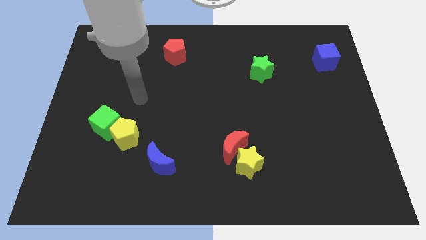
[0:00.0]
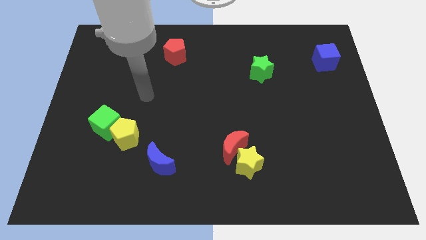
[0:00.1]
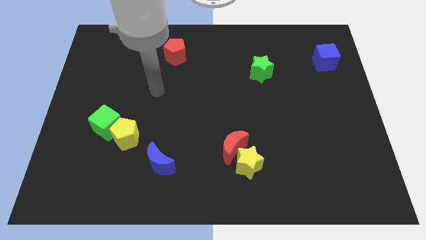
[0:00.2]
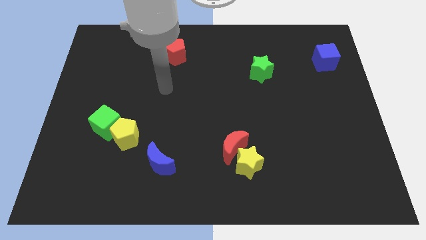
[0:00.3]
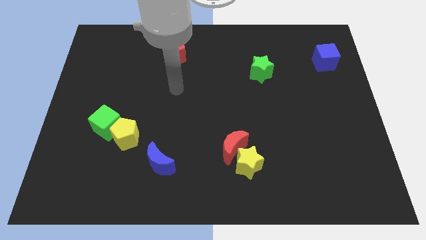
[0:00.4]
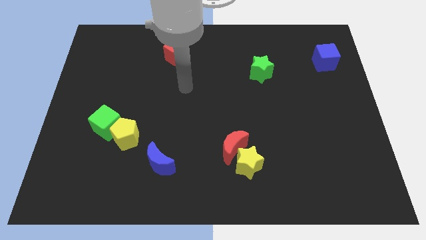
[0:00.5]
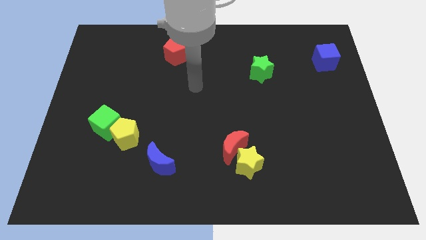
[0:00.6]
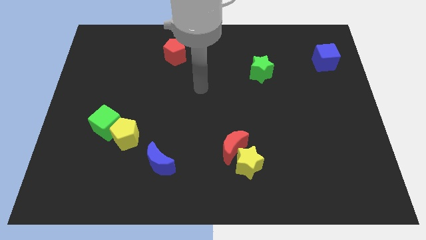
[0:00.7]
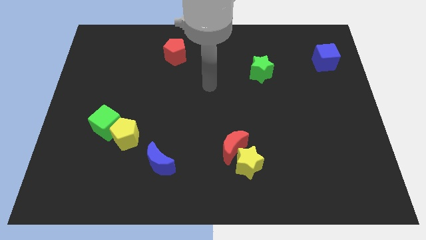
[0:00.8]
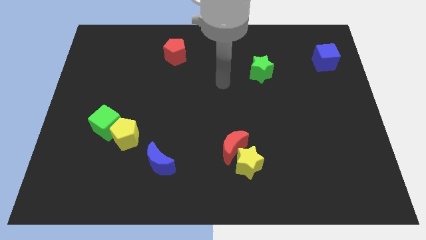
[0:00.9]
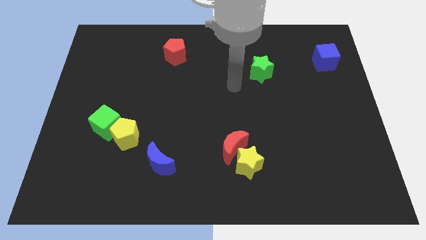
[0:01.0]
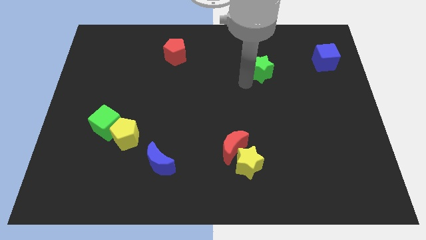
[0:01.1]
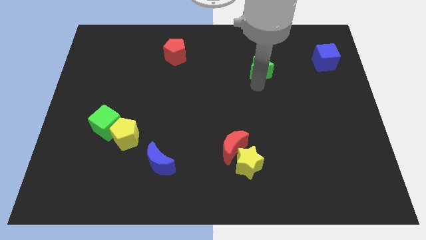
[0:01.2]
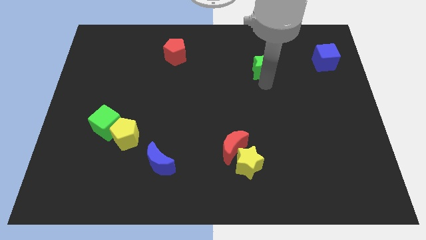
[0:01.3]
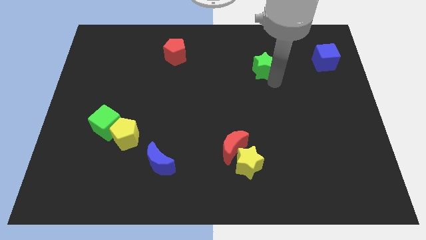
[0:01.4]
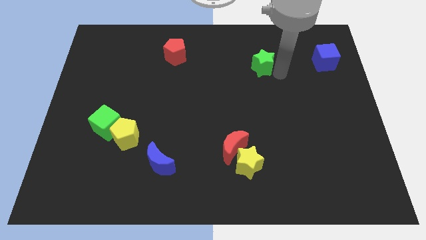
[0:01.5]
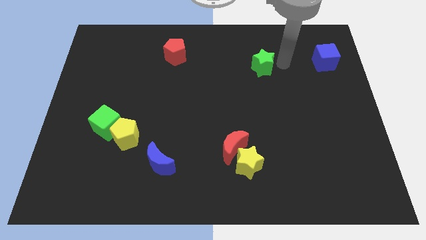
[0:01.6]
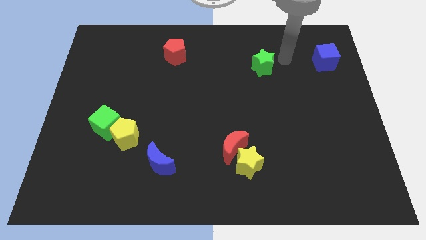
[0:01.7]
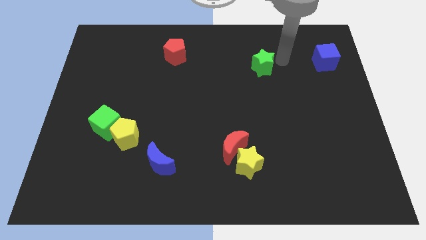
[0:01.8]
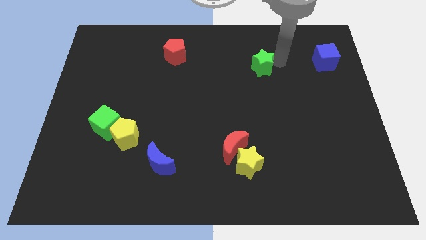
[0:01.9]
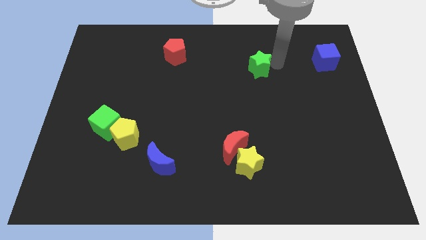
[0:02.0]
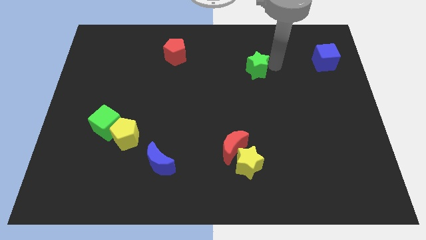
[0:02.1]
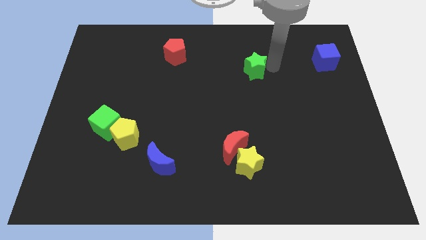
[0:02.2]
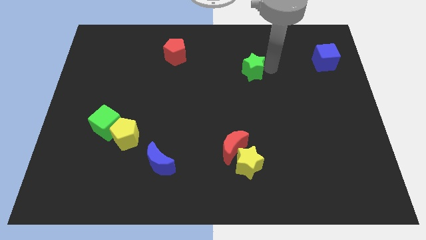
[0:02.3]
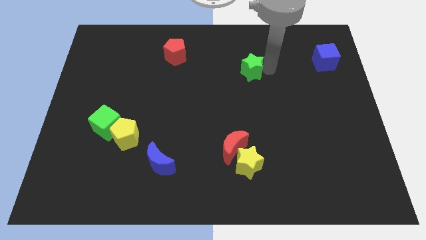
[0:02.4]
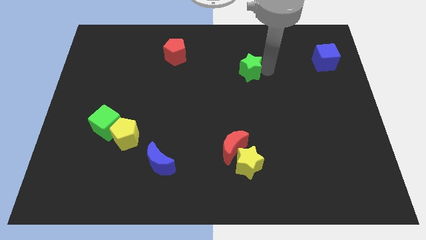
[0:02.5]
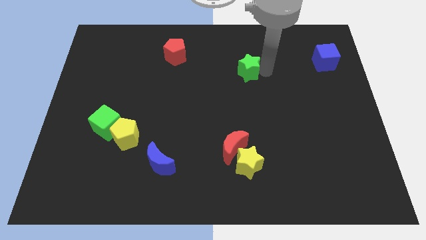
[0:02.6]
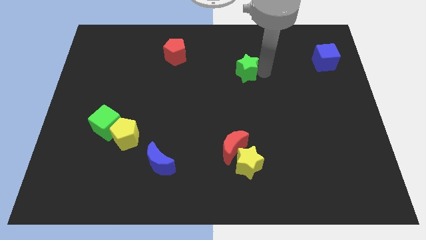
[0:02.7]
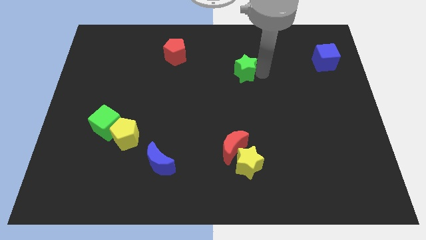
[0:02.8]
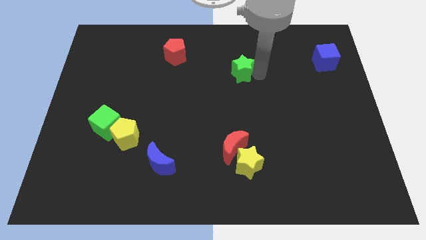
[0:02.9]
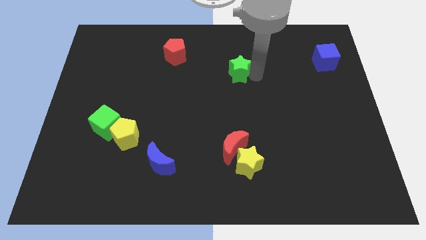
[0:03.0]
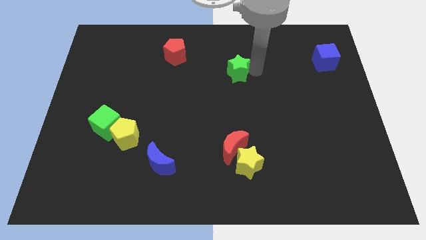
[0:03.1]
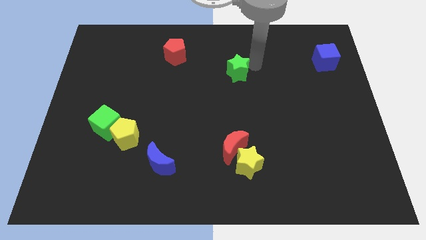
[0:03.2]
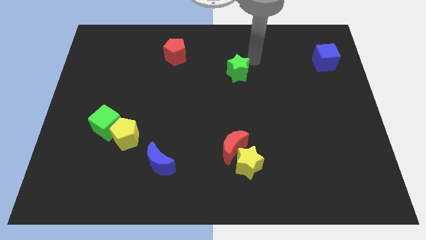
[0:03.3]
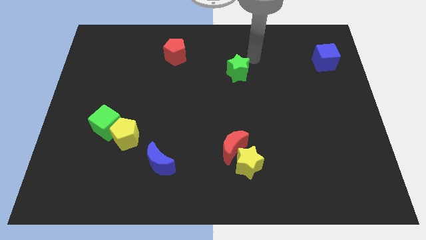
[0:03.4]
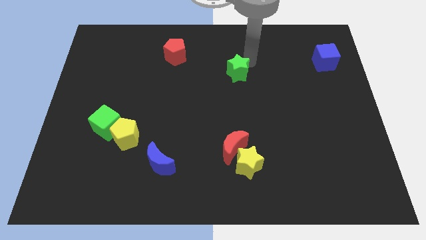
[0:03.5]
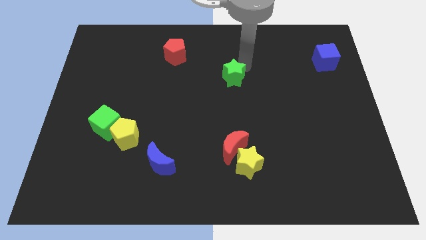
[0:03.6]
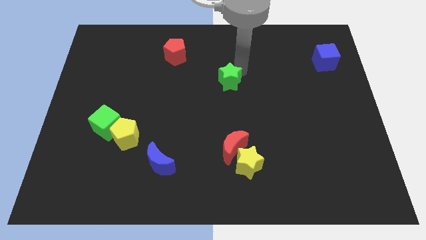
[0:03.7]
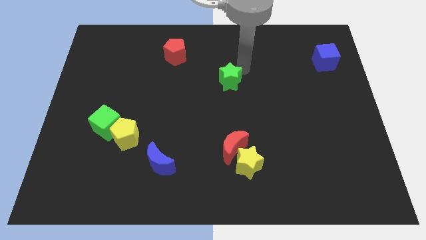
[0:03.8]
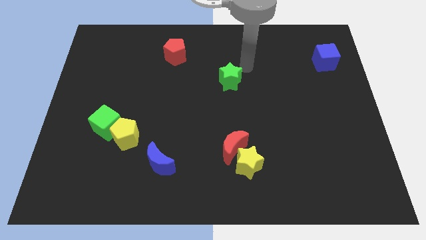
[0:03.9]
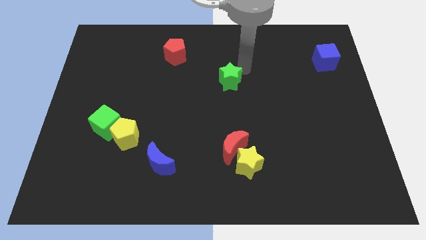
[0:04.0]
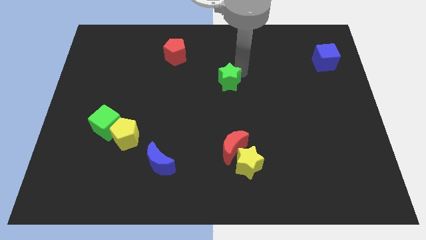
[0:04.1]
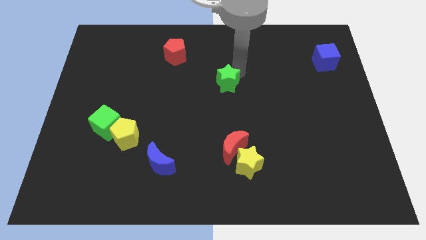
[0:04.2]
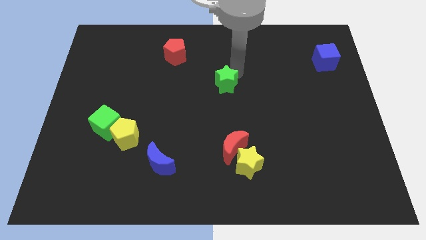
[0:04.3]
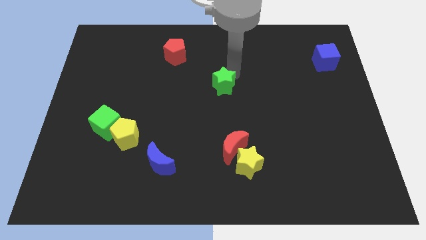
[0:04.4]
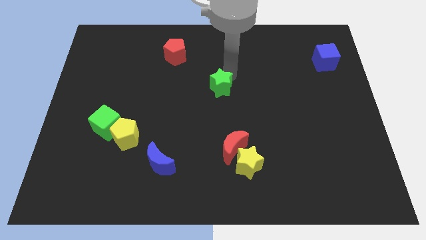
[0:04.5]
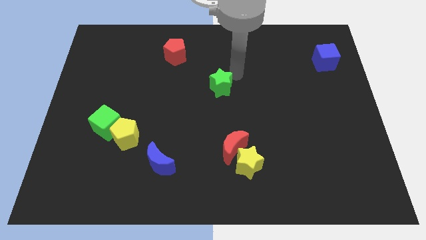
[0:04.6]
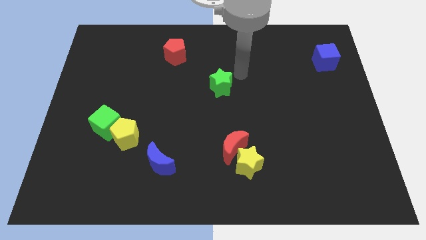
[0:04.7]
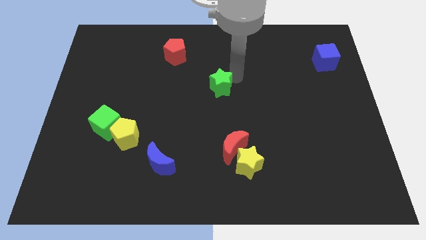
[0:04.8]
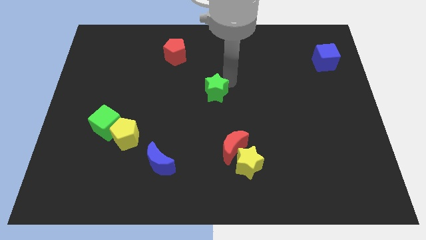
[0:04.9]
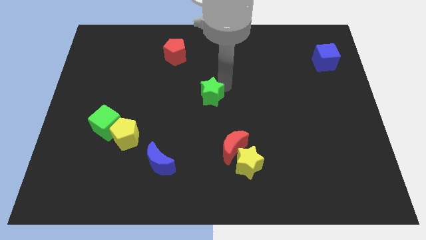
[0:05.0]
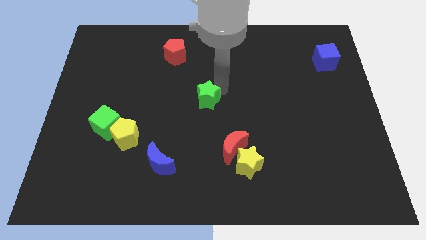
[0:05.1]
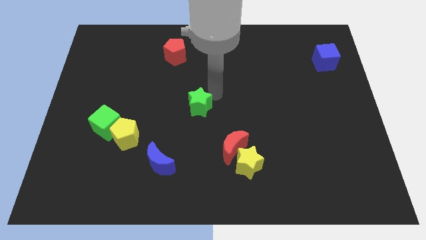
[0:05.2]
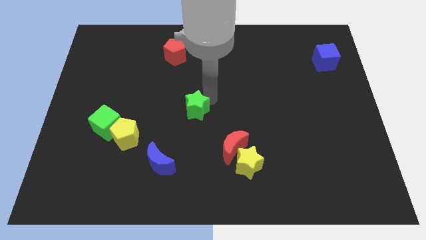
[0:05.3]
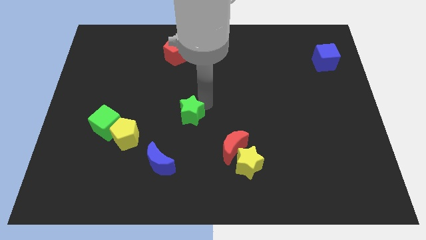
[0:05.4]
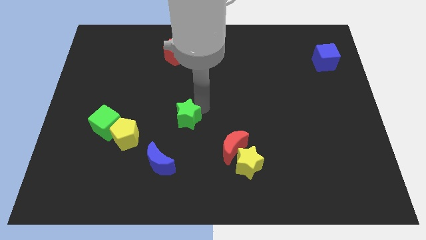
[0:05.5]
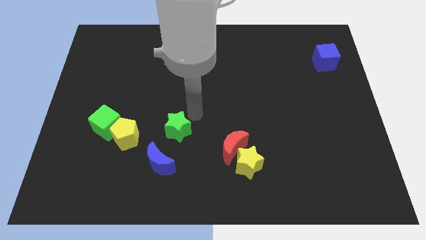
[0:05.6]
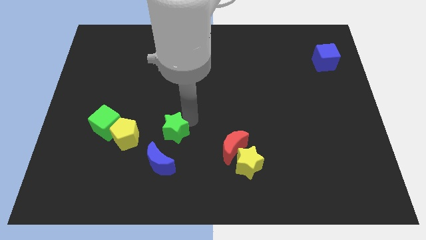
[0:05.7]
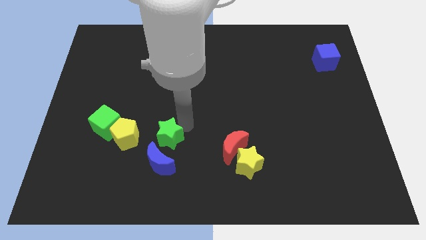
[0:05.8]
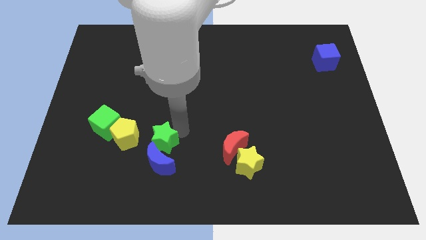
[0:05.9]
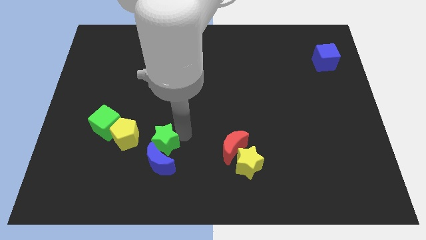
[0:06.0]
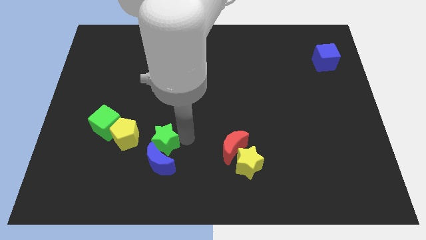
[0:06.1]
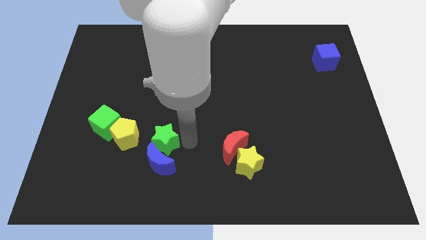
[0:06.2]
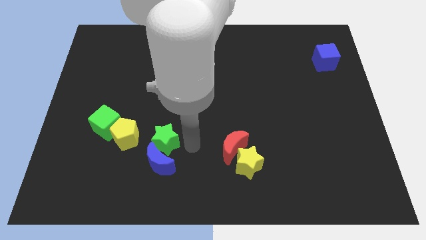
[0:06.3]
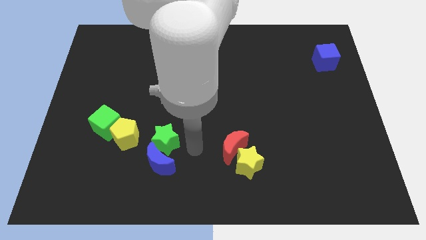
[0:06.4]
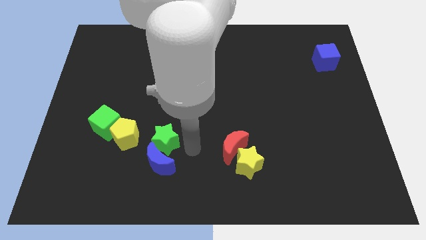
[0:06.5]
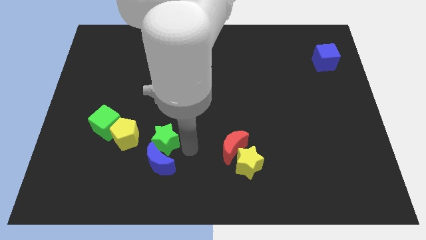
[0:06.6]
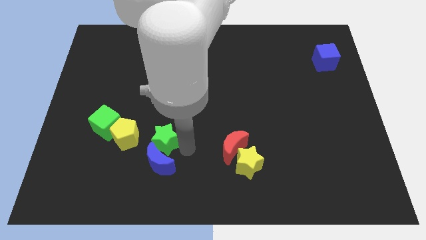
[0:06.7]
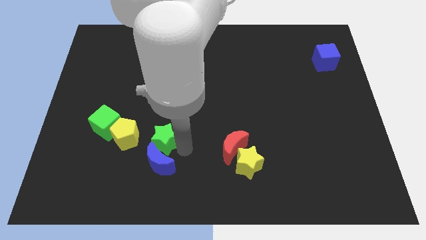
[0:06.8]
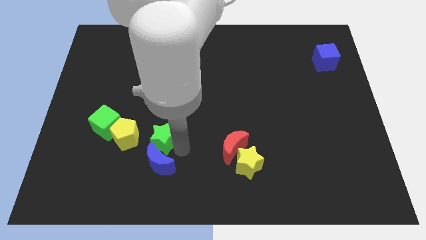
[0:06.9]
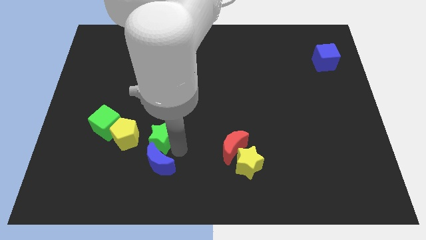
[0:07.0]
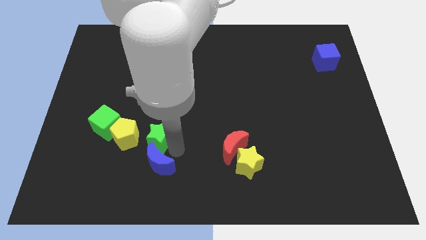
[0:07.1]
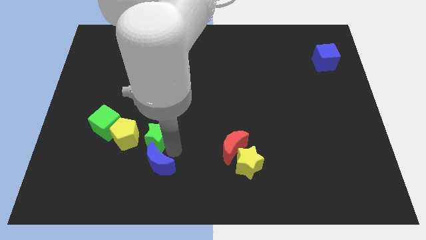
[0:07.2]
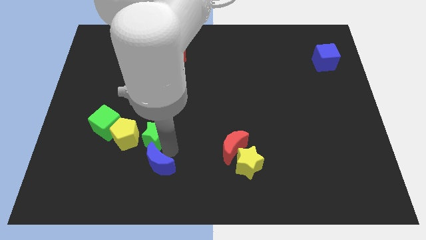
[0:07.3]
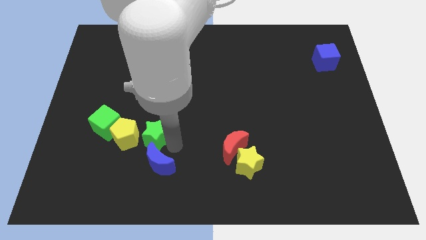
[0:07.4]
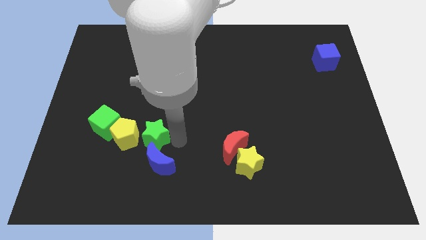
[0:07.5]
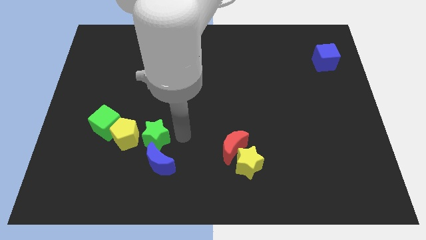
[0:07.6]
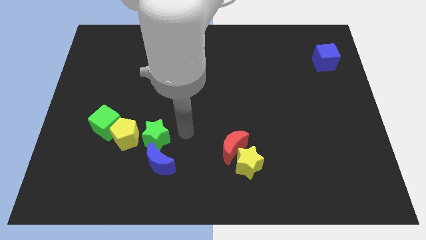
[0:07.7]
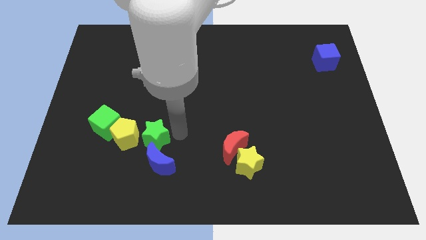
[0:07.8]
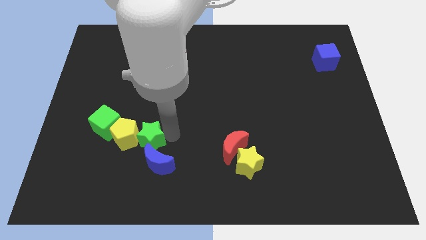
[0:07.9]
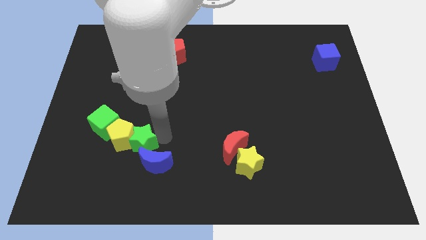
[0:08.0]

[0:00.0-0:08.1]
push the green star to the bottom right side of the green cube

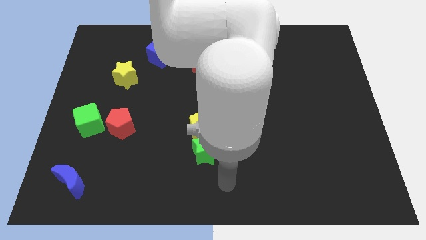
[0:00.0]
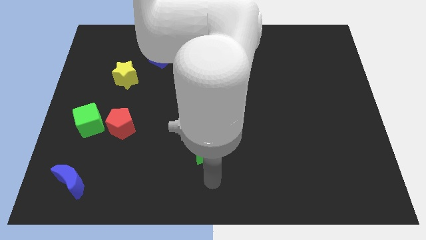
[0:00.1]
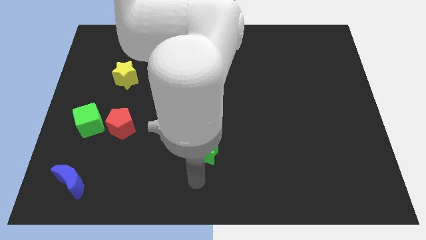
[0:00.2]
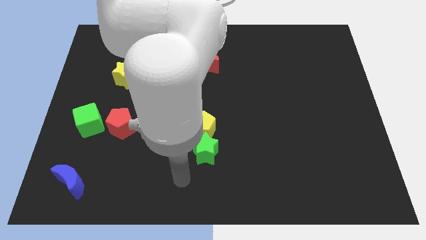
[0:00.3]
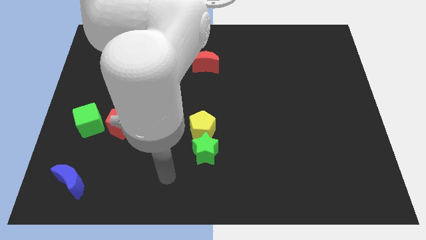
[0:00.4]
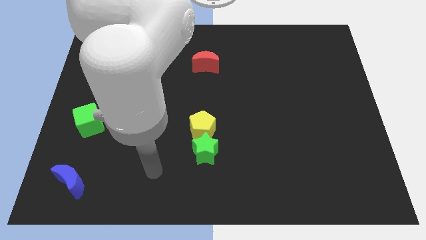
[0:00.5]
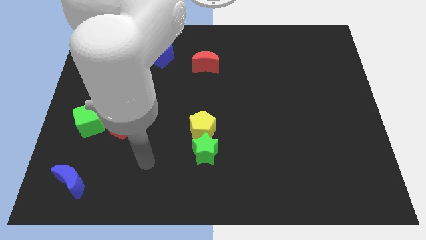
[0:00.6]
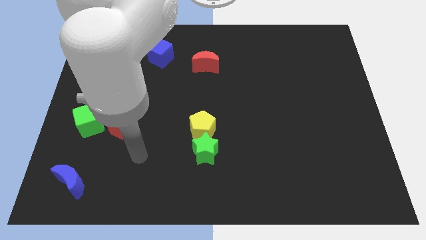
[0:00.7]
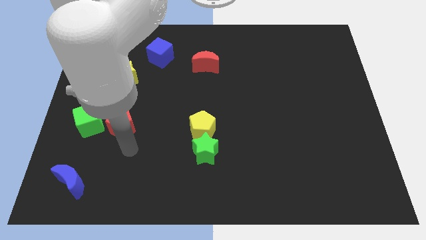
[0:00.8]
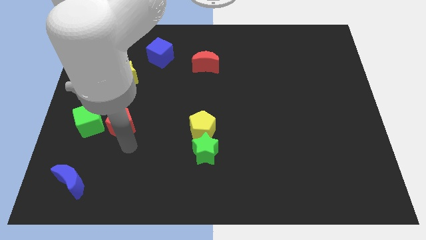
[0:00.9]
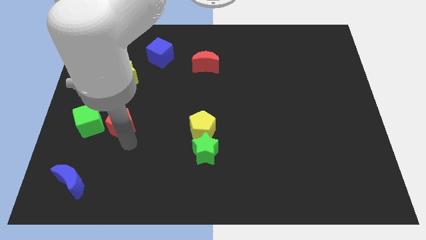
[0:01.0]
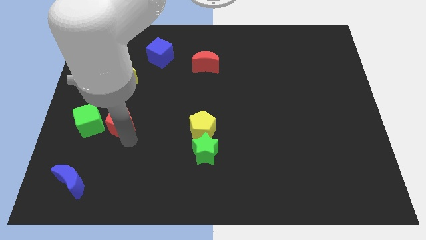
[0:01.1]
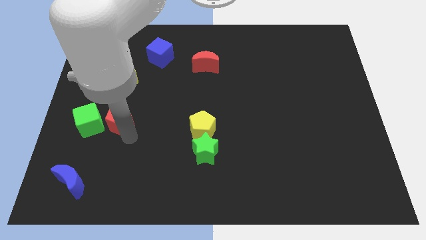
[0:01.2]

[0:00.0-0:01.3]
put the red pentagon to the top right side of the green cube
